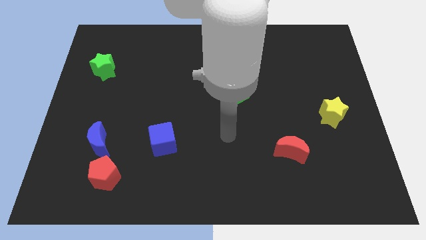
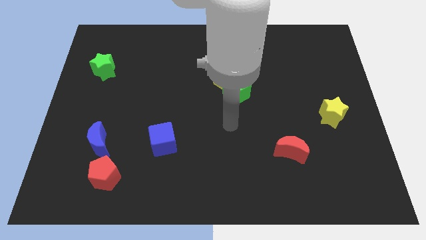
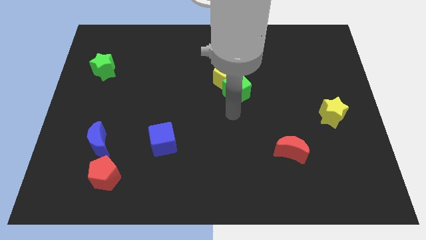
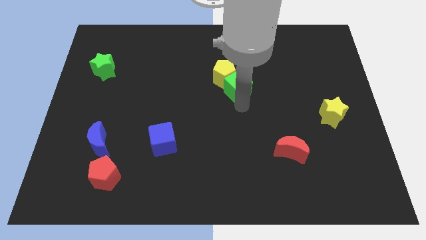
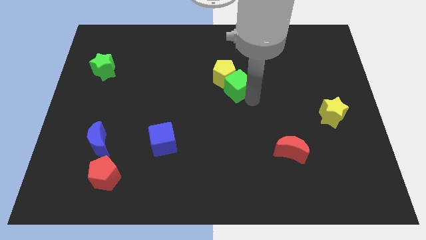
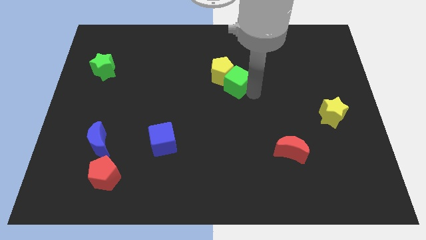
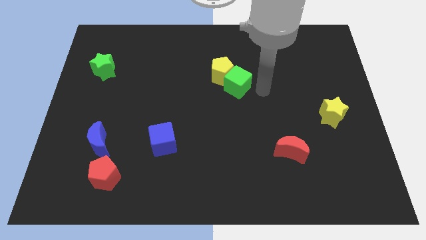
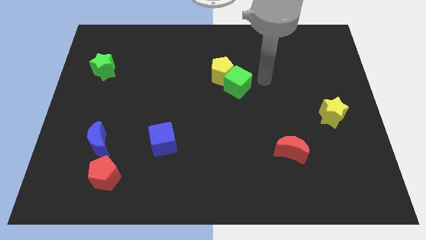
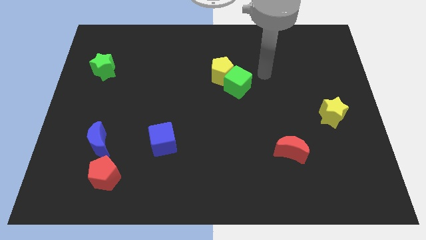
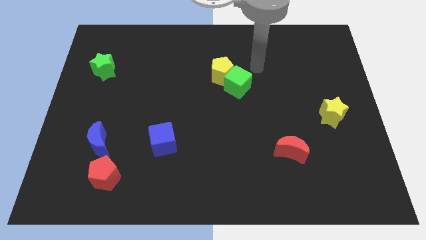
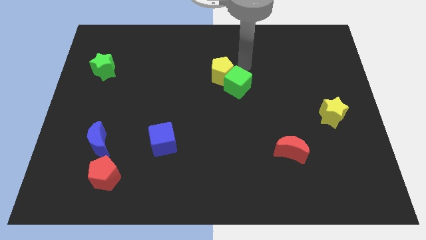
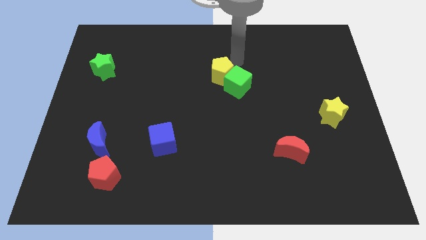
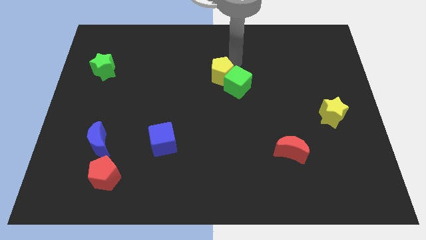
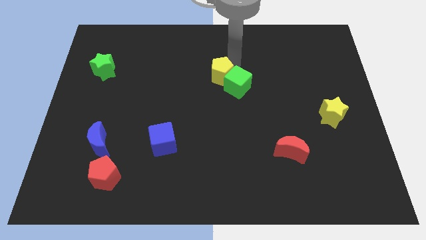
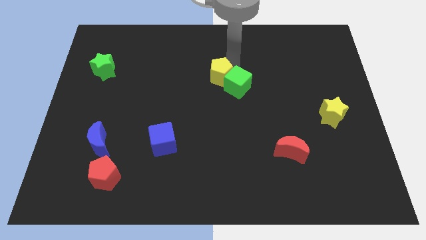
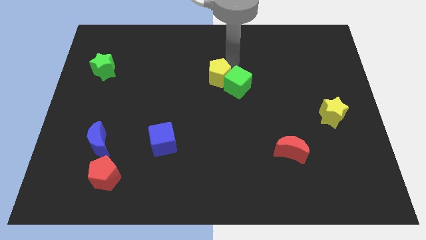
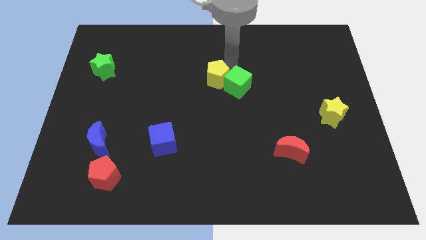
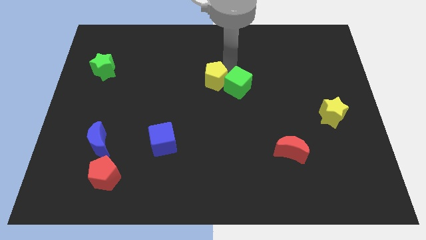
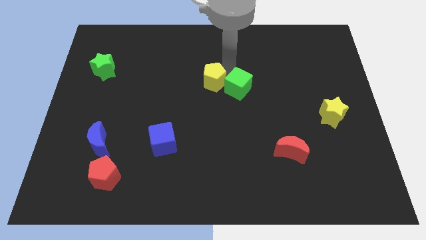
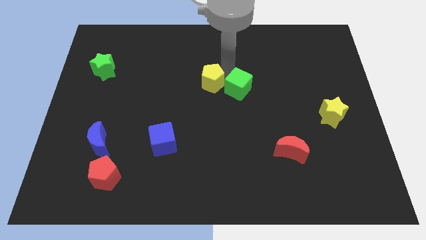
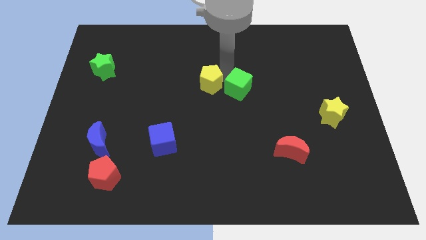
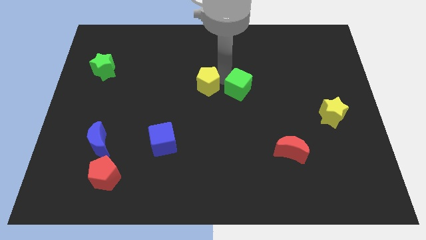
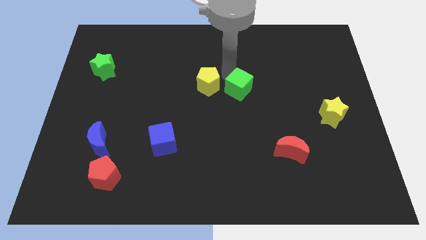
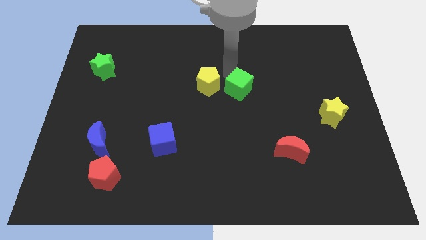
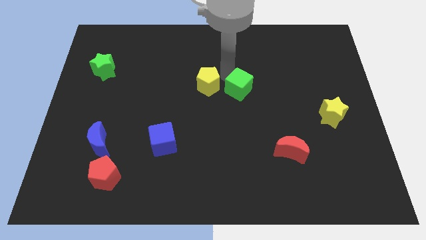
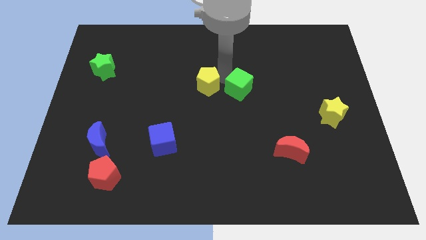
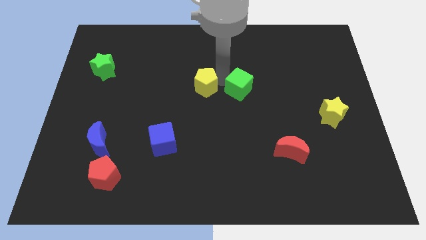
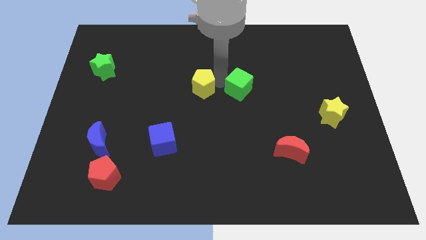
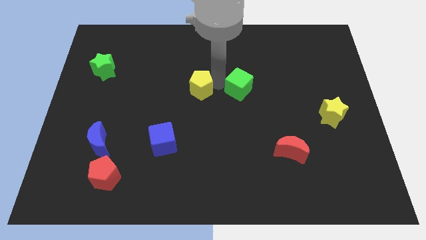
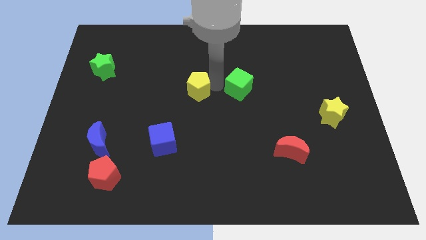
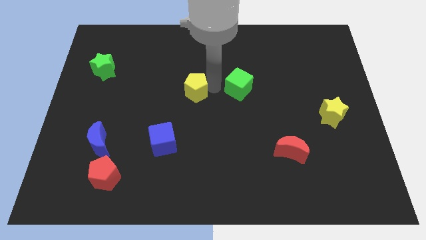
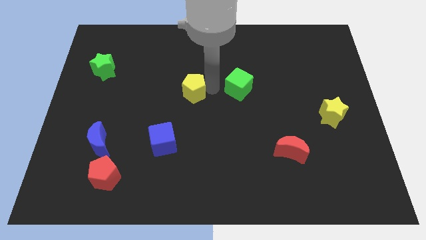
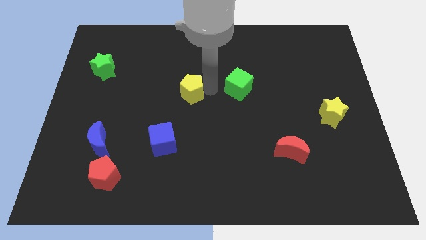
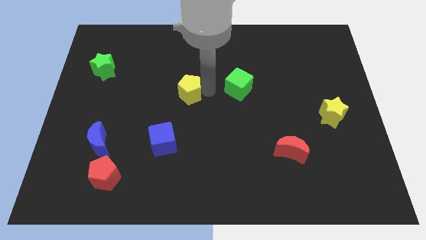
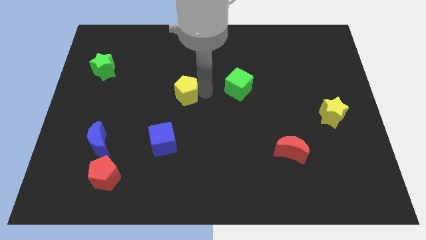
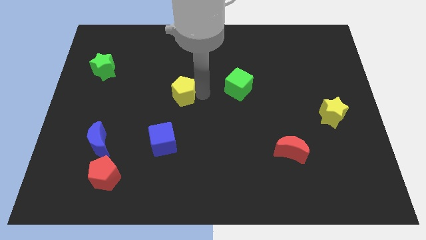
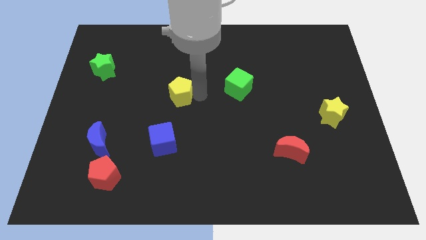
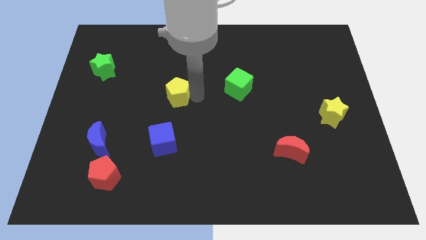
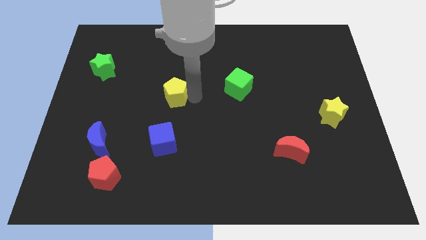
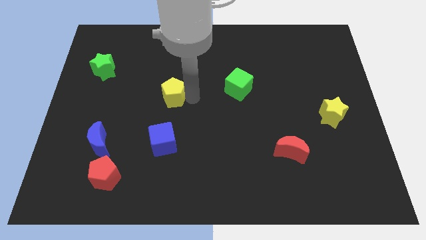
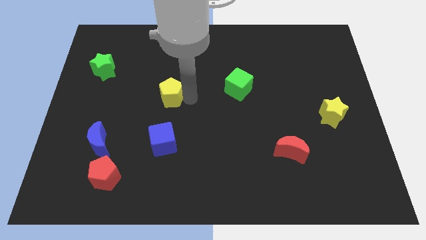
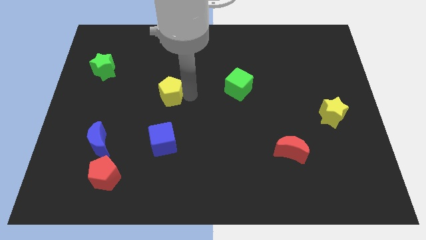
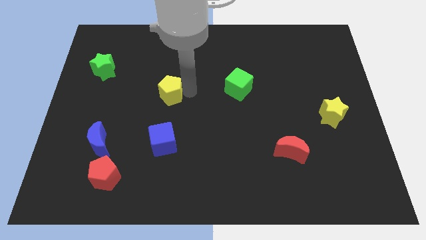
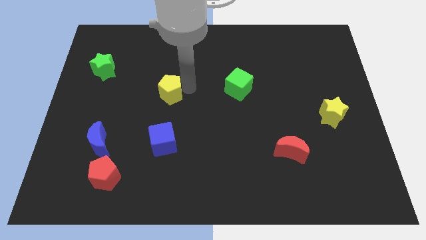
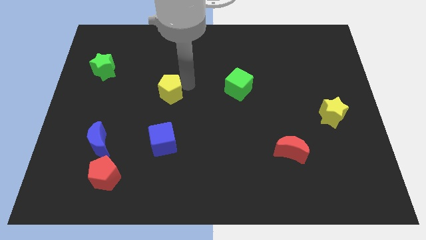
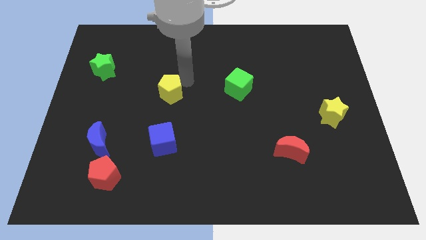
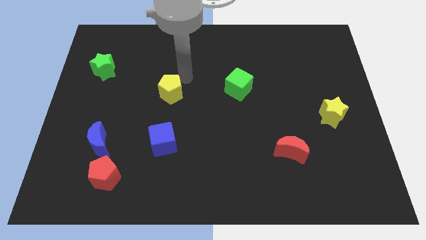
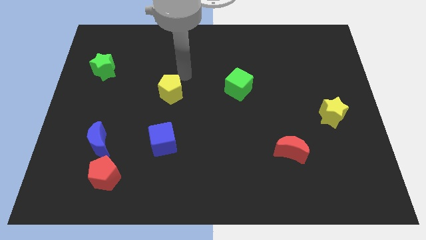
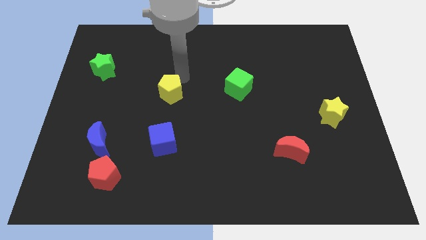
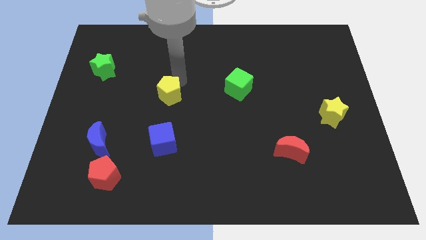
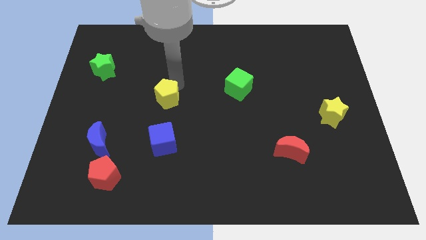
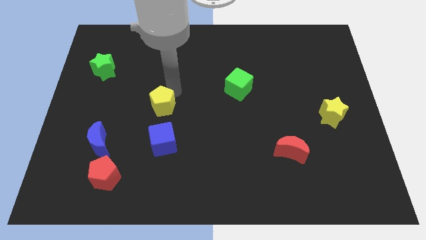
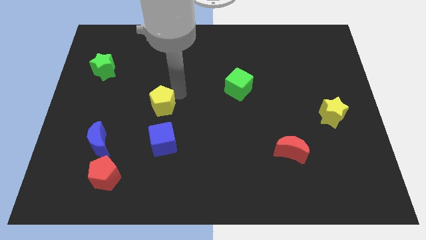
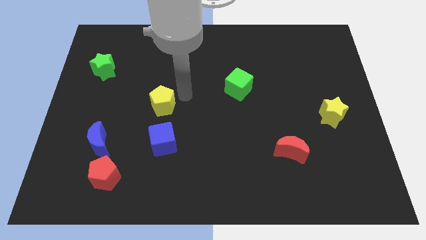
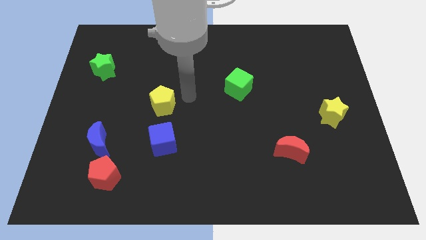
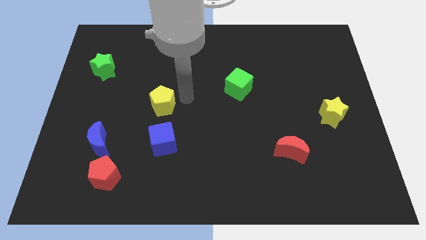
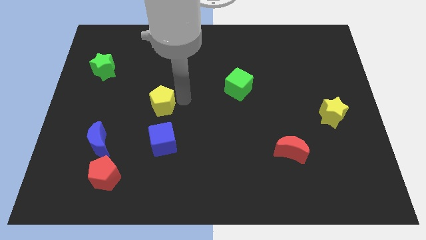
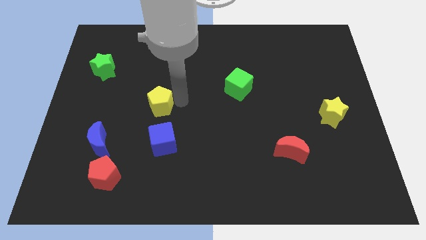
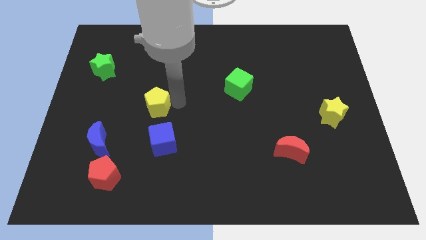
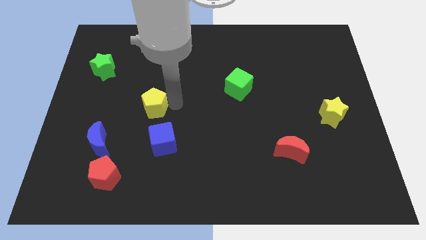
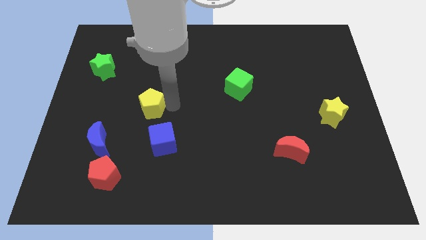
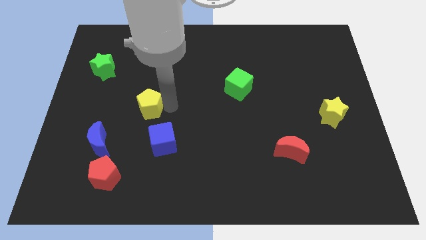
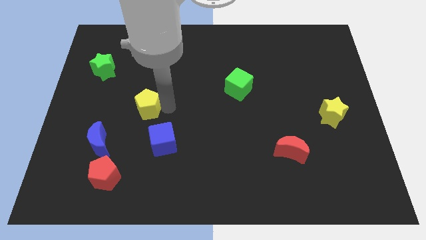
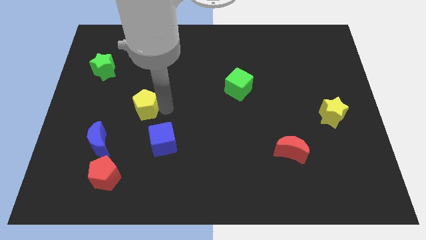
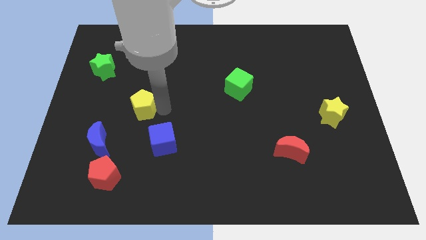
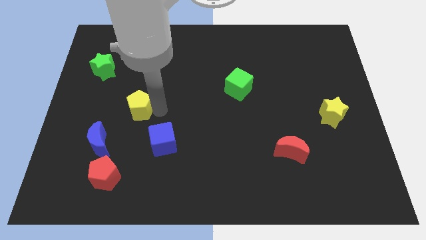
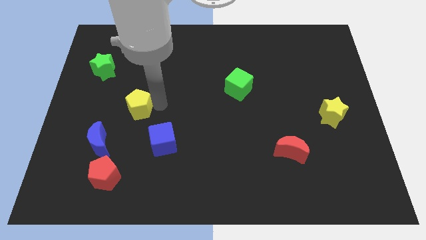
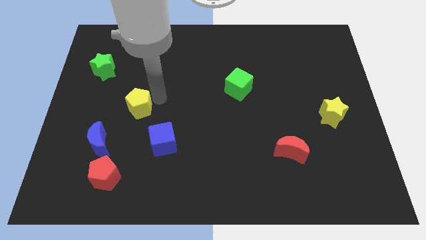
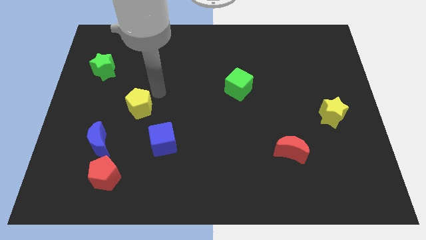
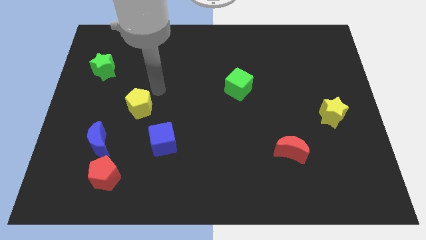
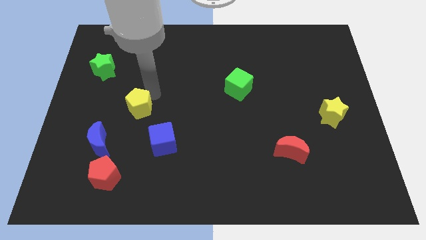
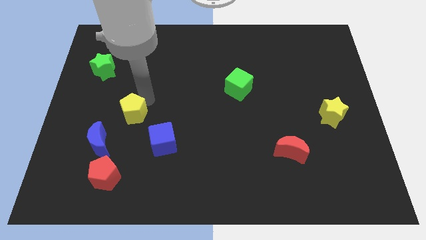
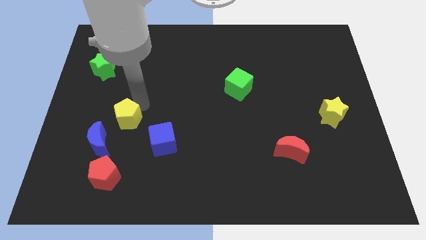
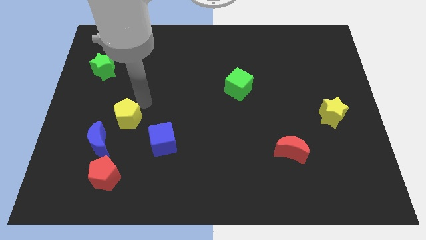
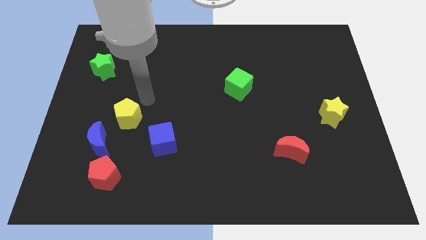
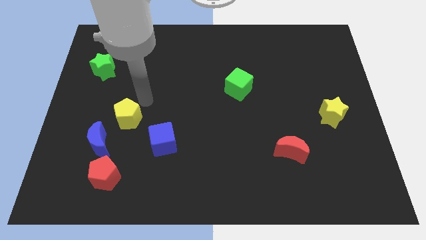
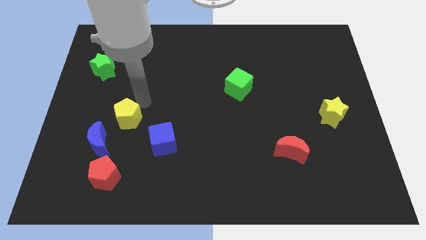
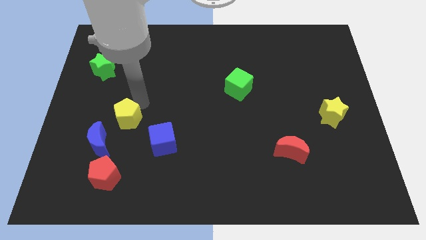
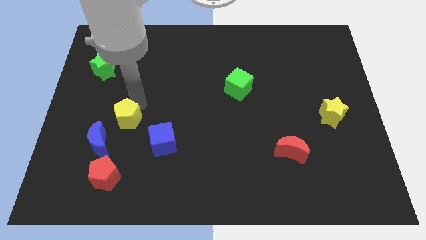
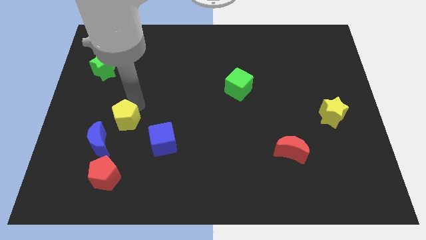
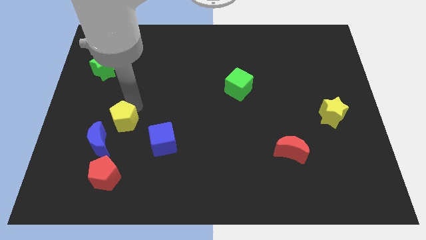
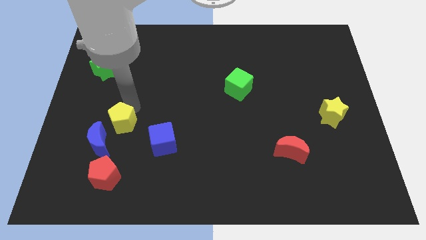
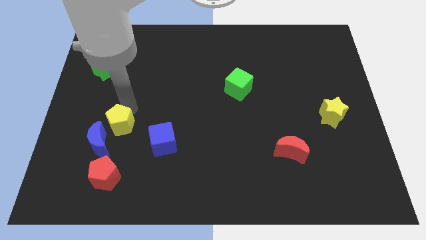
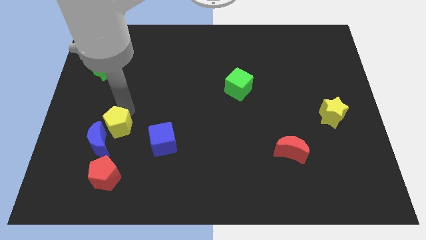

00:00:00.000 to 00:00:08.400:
push the yellow pentagon next to the blue moon
